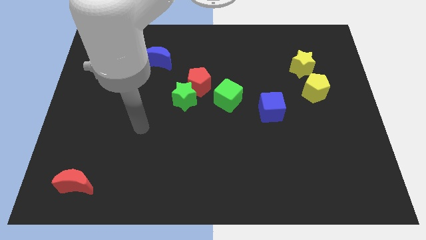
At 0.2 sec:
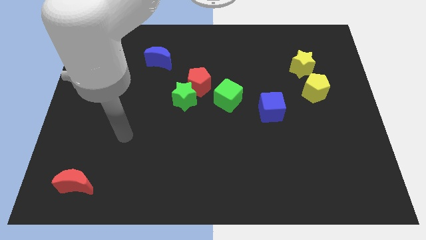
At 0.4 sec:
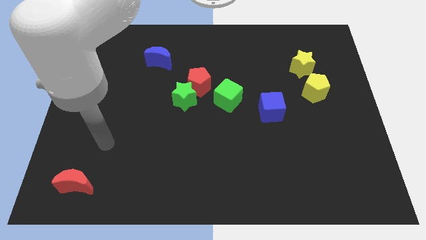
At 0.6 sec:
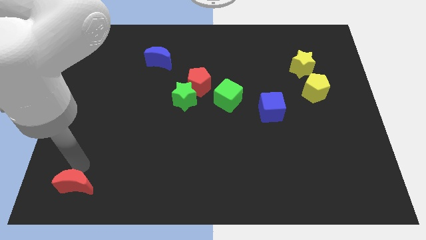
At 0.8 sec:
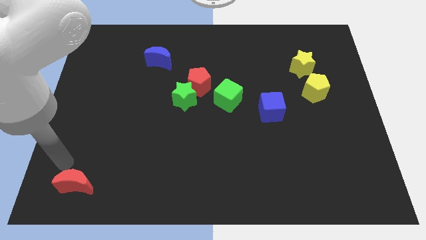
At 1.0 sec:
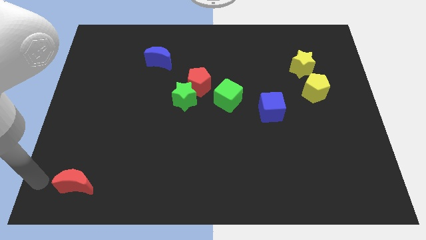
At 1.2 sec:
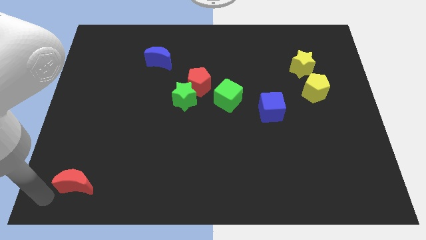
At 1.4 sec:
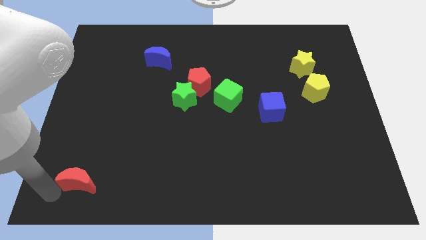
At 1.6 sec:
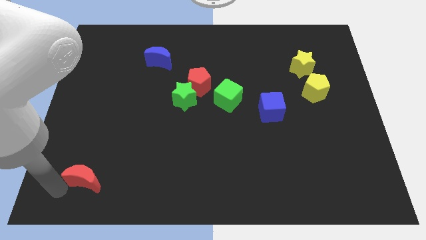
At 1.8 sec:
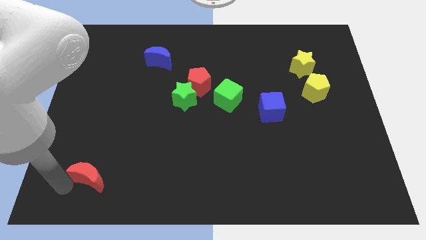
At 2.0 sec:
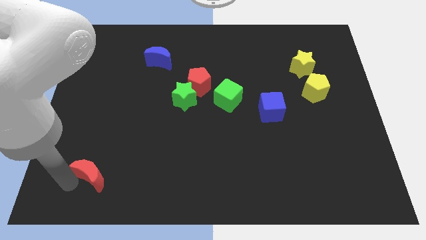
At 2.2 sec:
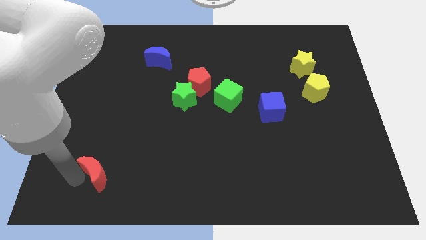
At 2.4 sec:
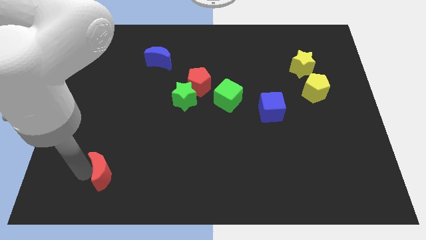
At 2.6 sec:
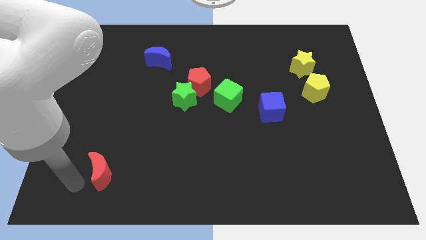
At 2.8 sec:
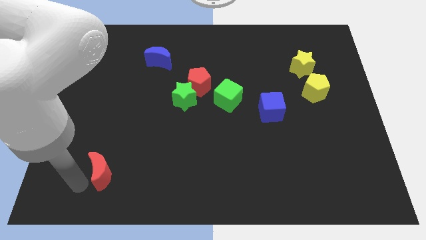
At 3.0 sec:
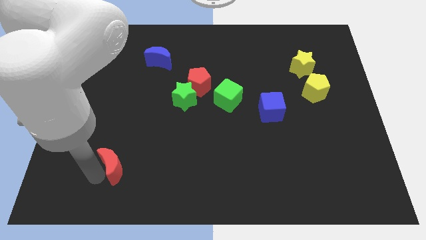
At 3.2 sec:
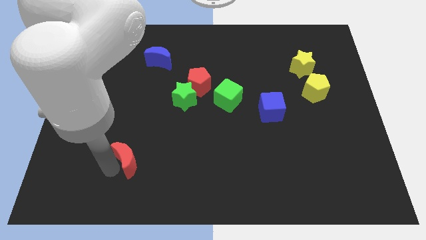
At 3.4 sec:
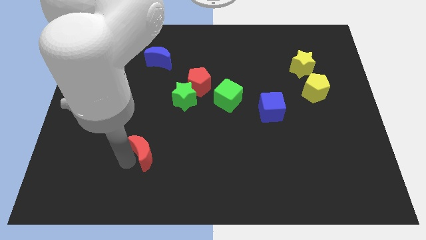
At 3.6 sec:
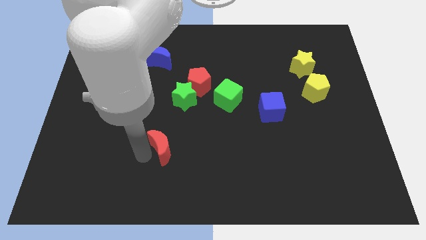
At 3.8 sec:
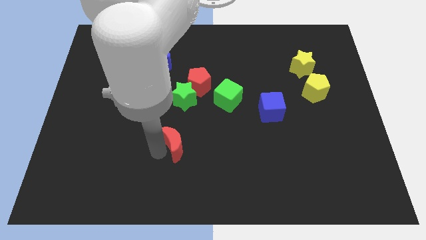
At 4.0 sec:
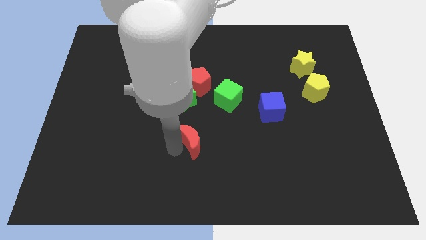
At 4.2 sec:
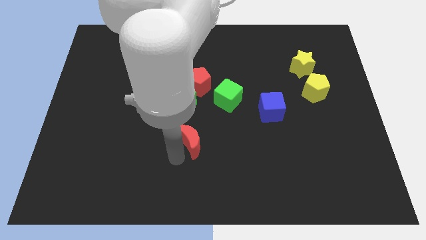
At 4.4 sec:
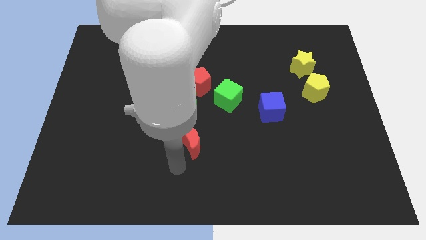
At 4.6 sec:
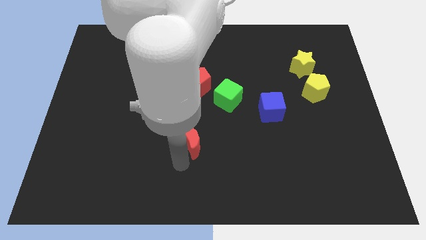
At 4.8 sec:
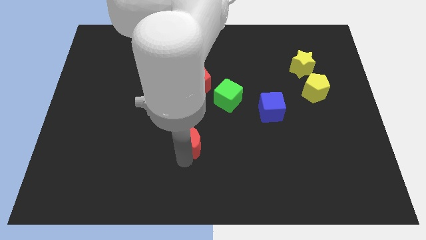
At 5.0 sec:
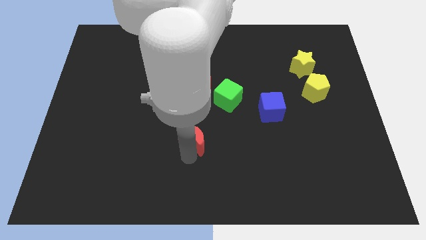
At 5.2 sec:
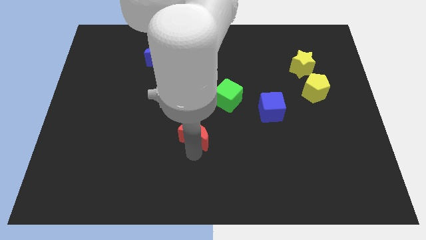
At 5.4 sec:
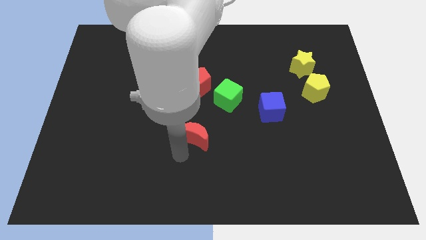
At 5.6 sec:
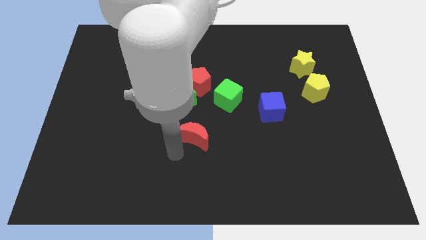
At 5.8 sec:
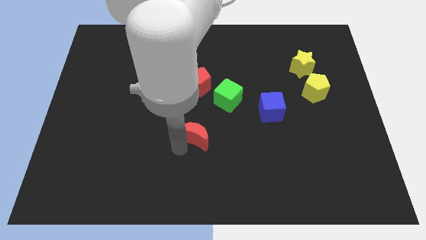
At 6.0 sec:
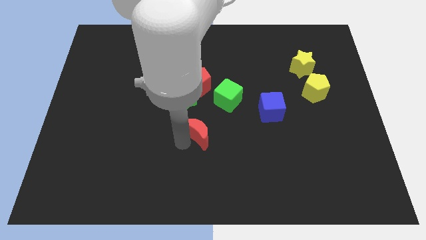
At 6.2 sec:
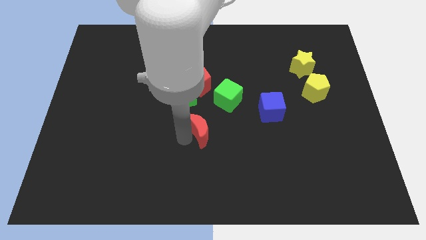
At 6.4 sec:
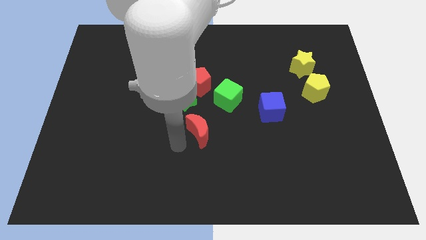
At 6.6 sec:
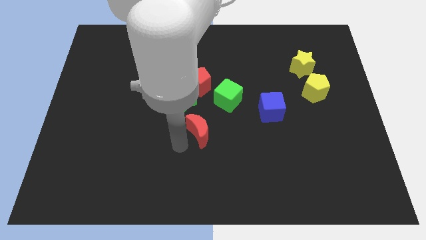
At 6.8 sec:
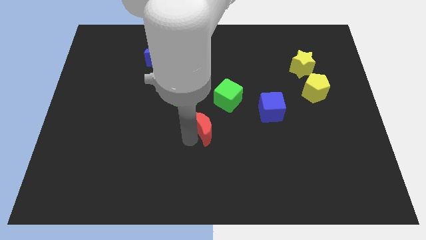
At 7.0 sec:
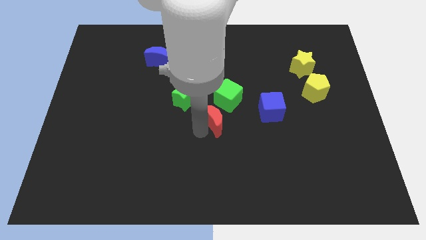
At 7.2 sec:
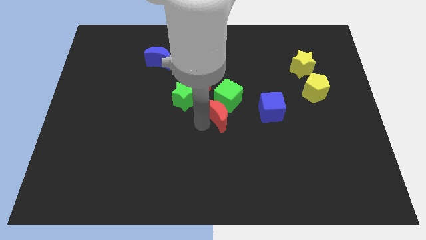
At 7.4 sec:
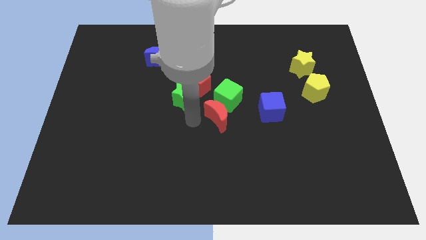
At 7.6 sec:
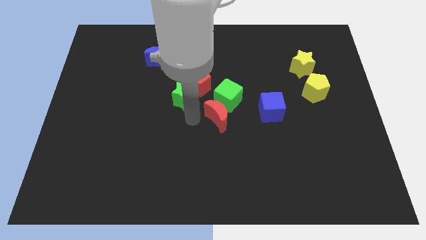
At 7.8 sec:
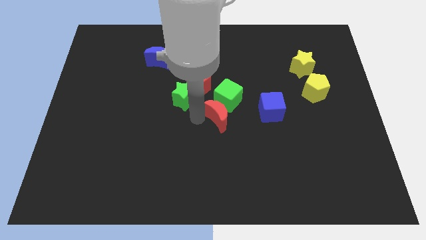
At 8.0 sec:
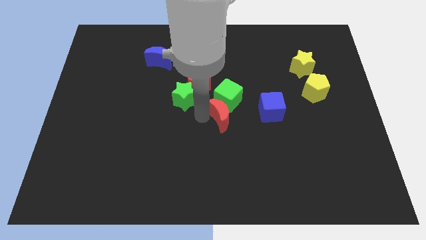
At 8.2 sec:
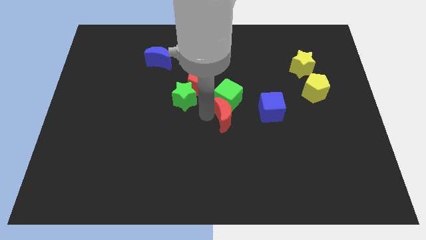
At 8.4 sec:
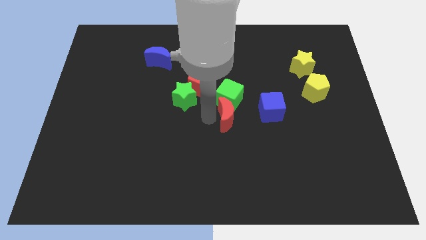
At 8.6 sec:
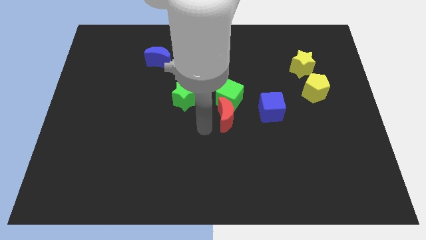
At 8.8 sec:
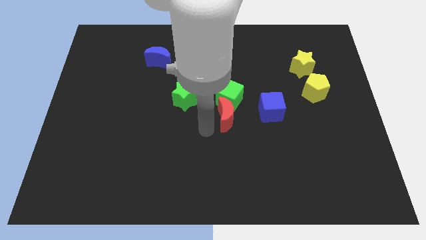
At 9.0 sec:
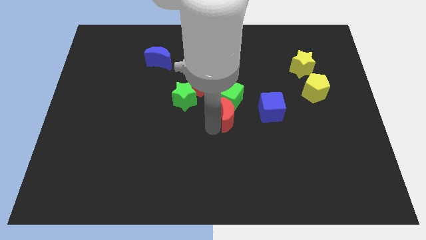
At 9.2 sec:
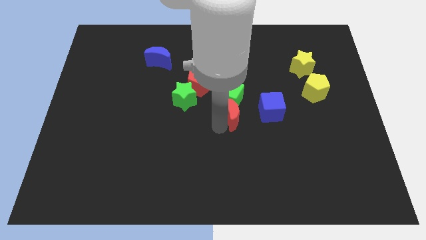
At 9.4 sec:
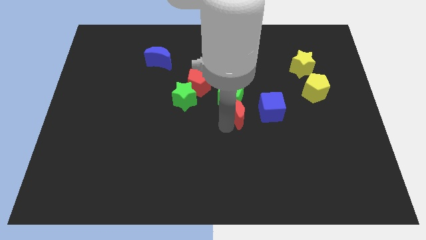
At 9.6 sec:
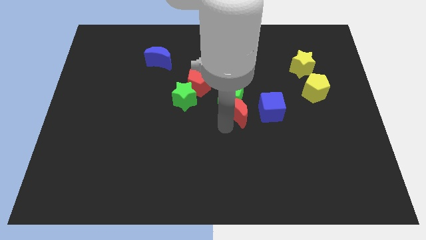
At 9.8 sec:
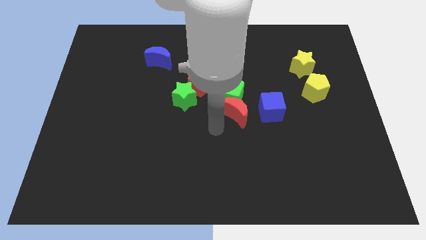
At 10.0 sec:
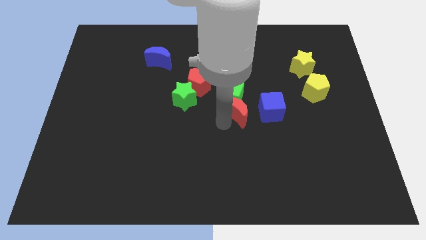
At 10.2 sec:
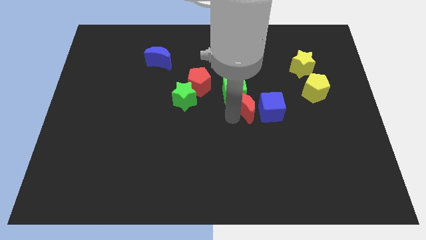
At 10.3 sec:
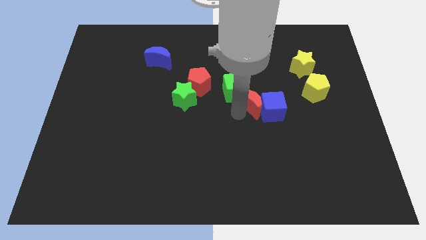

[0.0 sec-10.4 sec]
push the red moon to the right side of the green cube

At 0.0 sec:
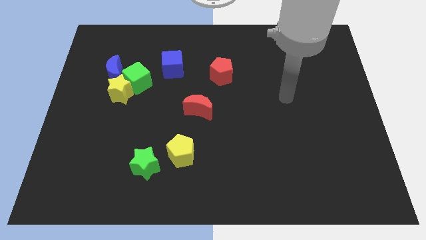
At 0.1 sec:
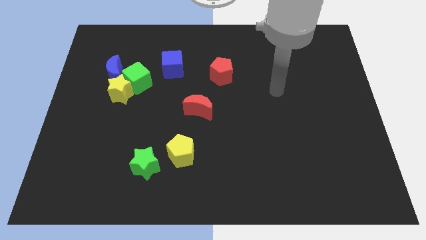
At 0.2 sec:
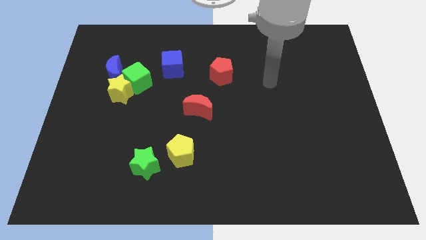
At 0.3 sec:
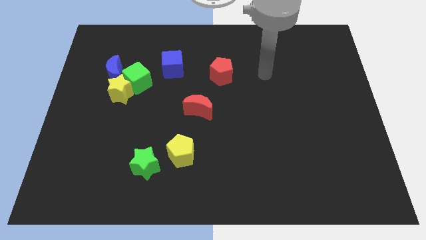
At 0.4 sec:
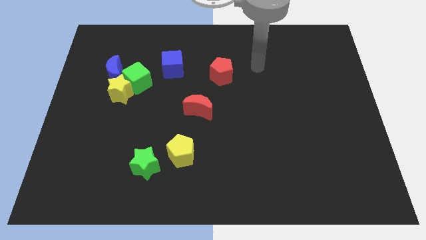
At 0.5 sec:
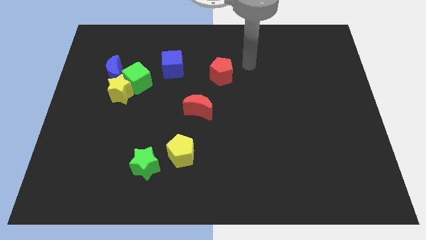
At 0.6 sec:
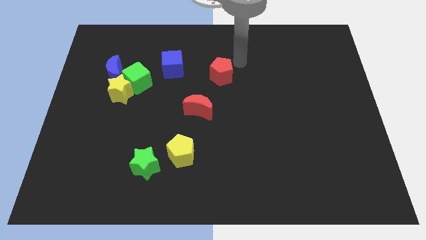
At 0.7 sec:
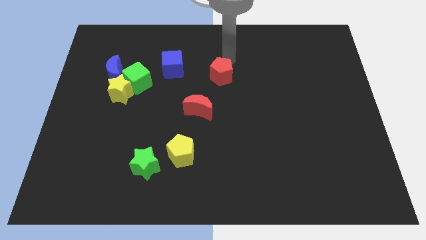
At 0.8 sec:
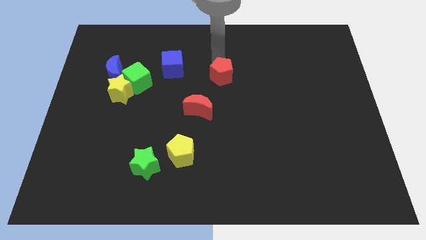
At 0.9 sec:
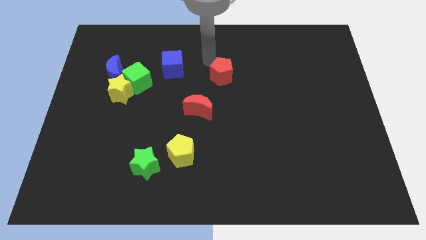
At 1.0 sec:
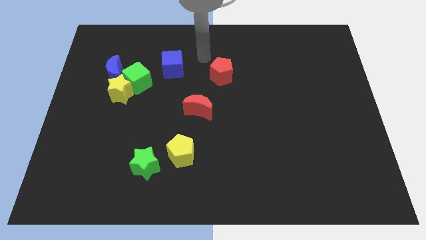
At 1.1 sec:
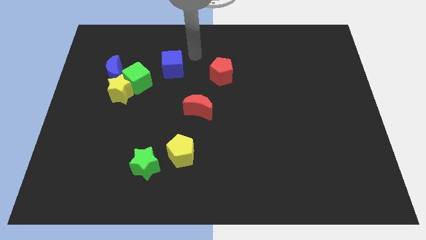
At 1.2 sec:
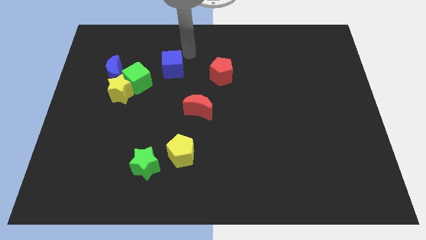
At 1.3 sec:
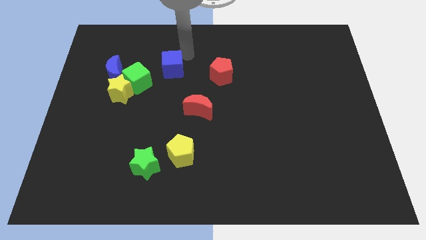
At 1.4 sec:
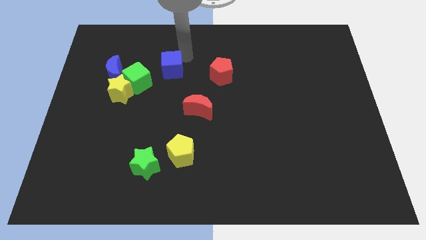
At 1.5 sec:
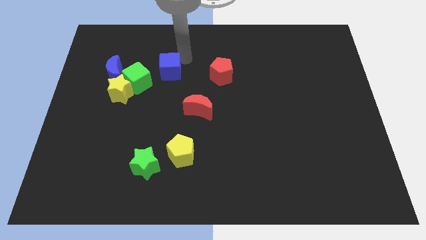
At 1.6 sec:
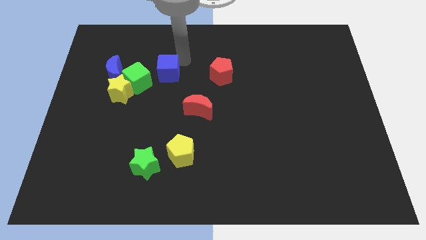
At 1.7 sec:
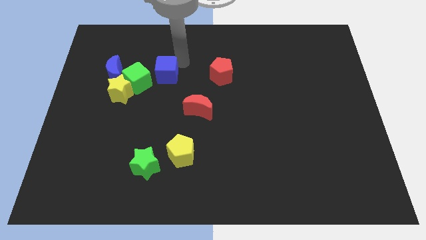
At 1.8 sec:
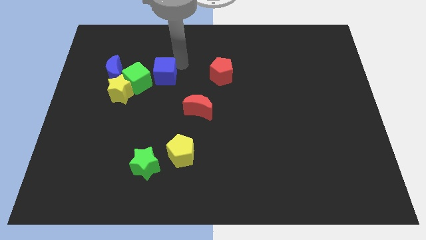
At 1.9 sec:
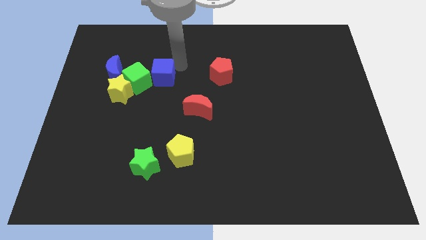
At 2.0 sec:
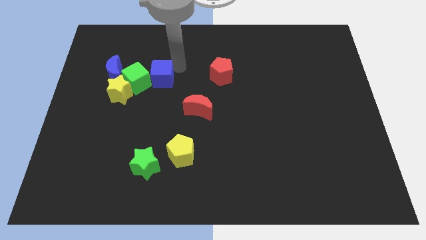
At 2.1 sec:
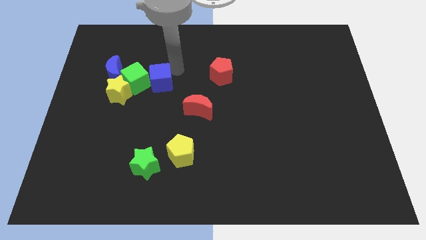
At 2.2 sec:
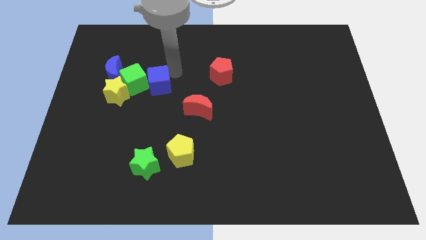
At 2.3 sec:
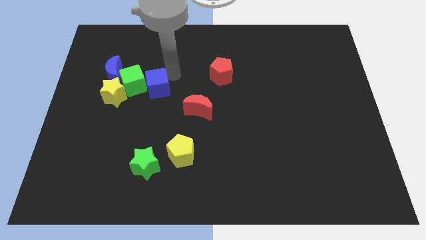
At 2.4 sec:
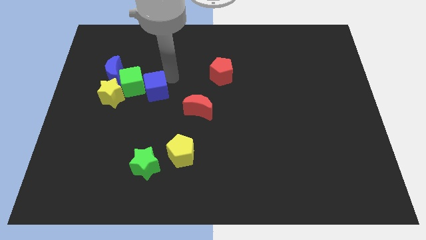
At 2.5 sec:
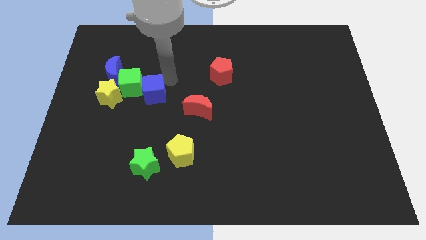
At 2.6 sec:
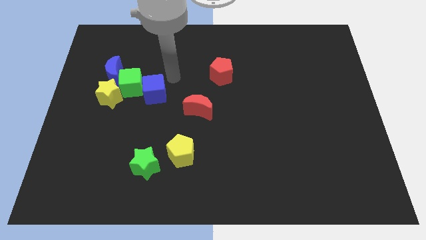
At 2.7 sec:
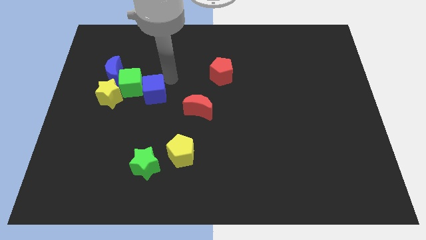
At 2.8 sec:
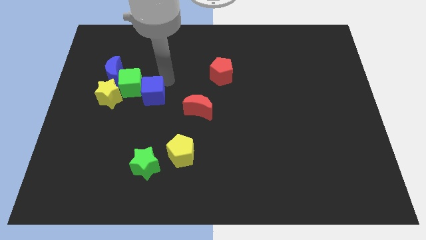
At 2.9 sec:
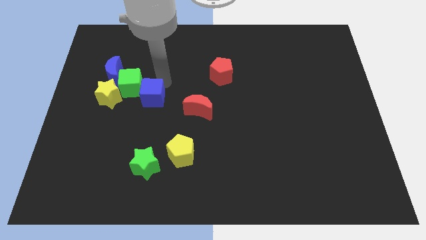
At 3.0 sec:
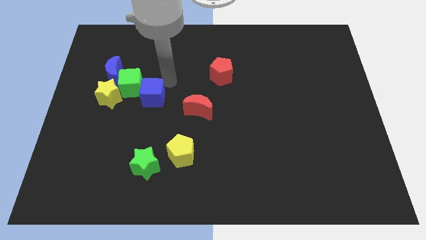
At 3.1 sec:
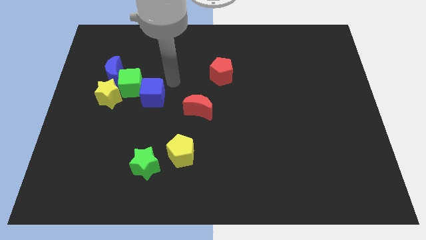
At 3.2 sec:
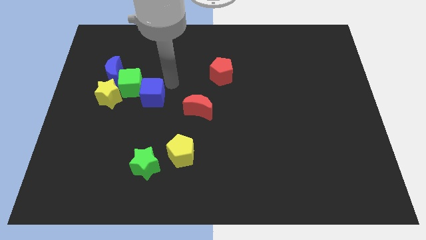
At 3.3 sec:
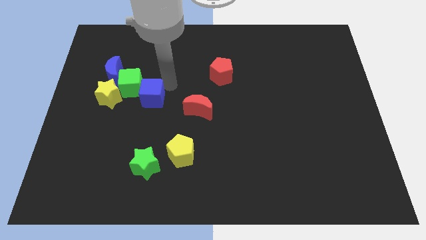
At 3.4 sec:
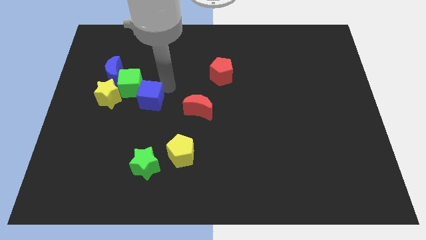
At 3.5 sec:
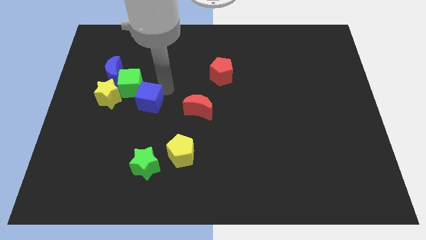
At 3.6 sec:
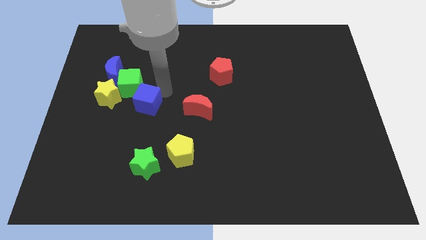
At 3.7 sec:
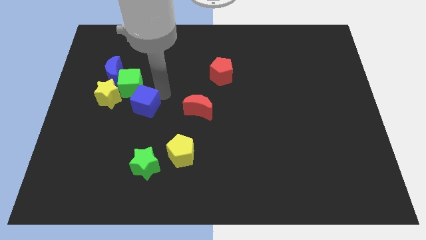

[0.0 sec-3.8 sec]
move the blue cube to the bottom right side of the yellow star
